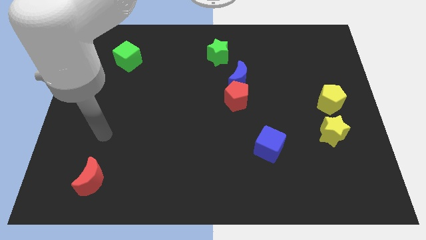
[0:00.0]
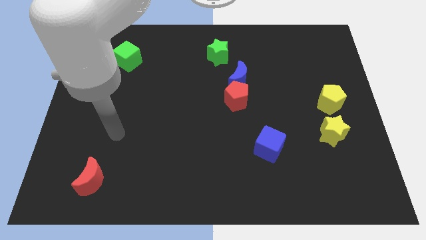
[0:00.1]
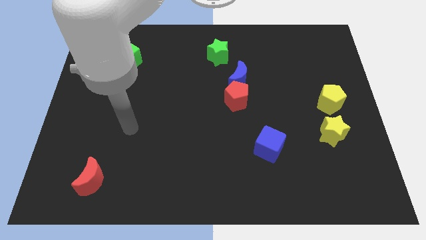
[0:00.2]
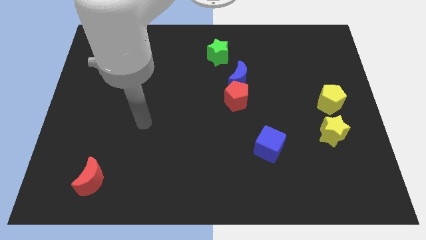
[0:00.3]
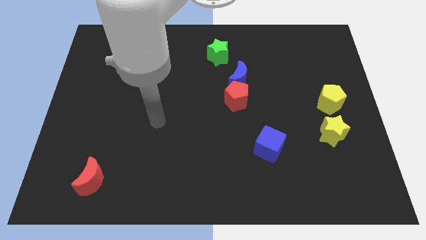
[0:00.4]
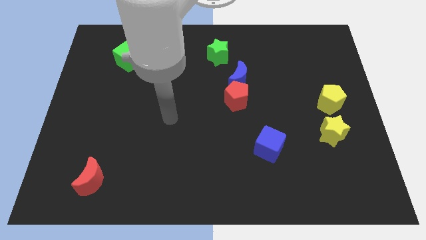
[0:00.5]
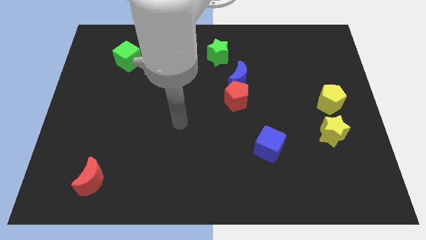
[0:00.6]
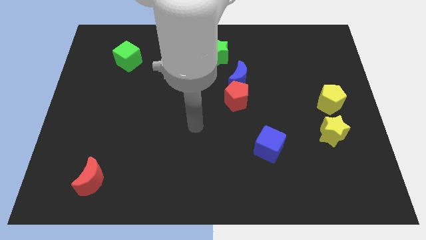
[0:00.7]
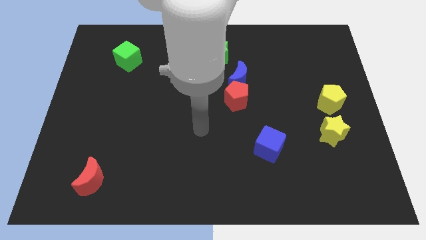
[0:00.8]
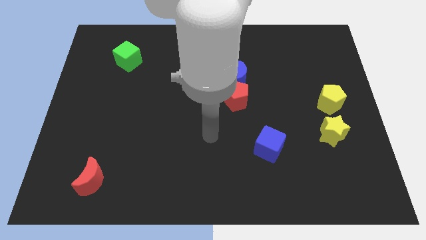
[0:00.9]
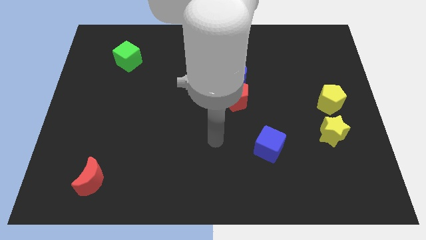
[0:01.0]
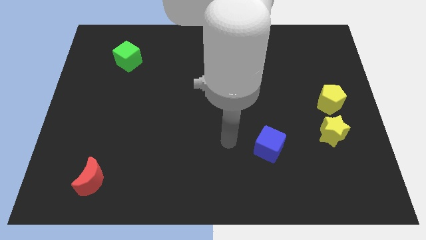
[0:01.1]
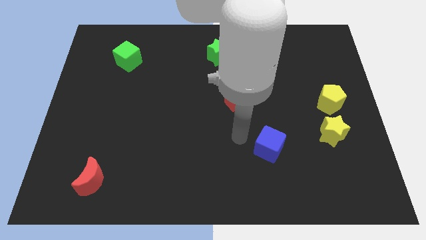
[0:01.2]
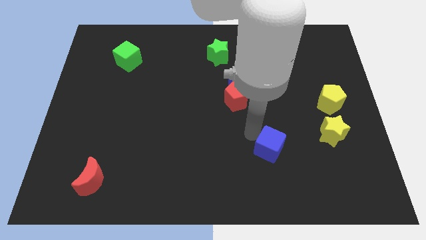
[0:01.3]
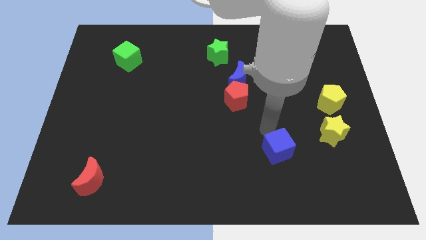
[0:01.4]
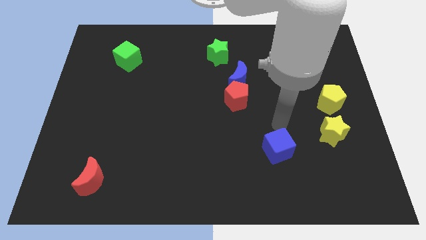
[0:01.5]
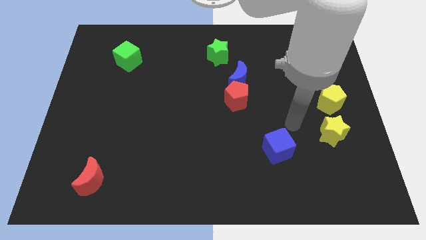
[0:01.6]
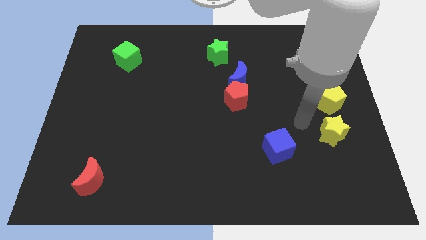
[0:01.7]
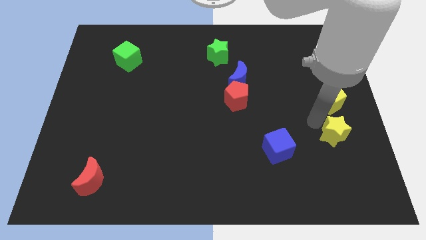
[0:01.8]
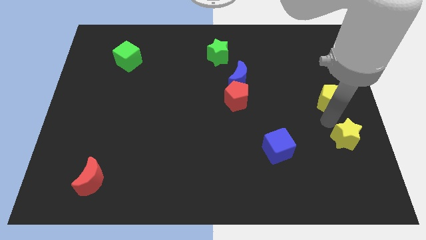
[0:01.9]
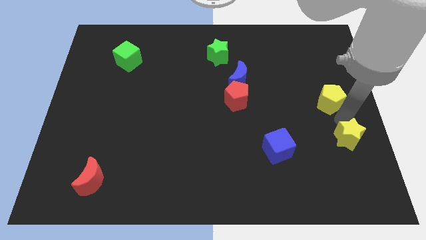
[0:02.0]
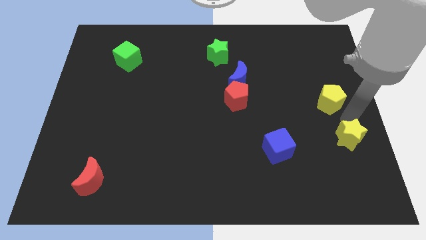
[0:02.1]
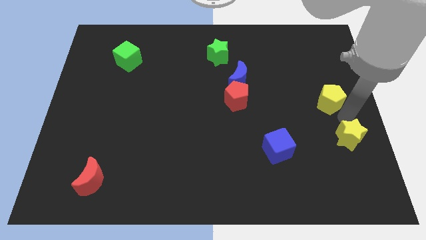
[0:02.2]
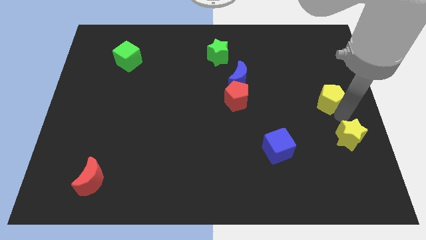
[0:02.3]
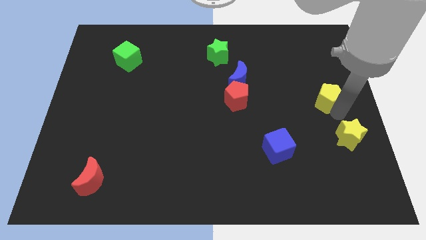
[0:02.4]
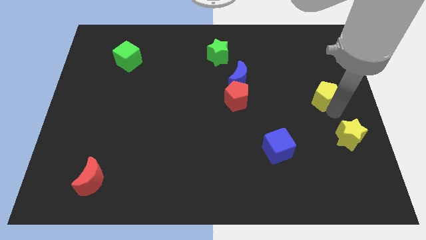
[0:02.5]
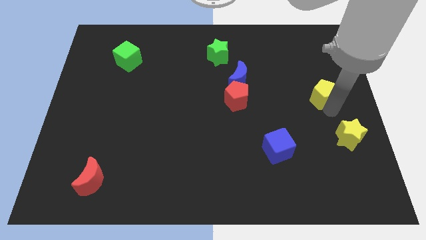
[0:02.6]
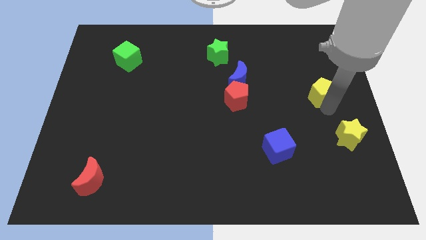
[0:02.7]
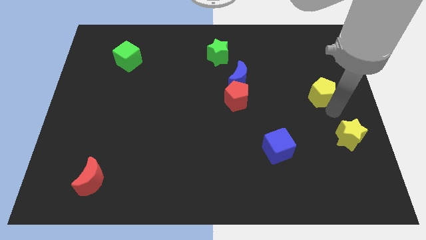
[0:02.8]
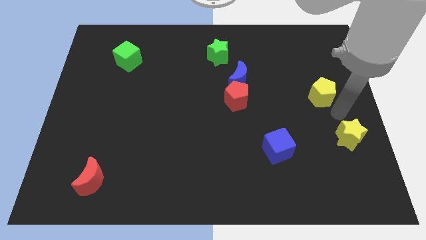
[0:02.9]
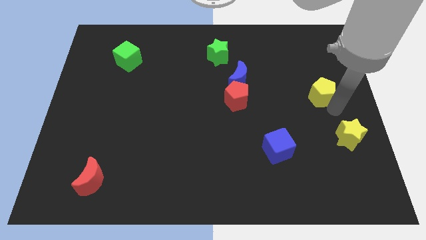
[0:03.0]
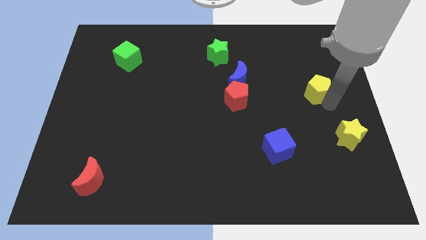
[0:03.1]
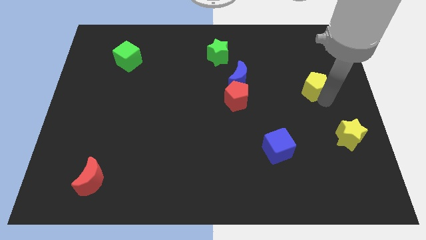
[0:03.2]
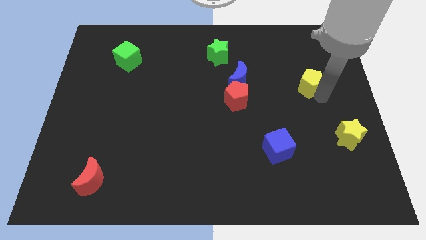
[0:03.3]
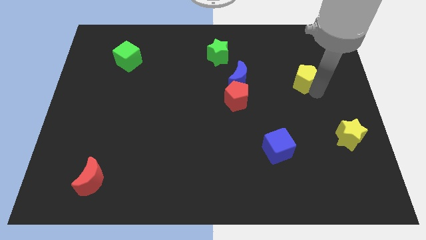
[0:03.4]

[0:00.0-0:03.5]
slide the yellow pentagon upwards and to the left a little

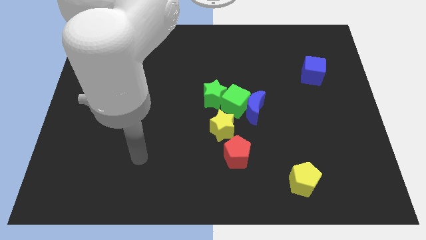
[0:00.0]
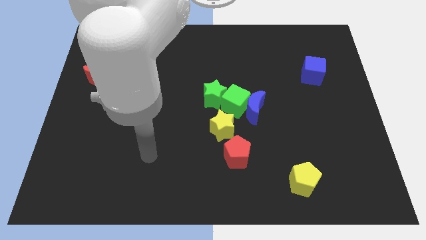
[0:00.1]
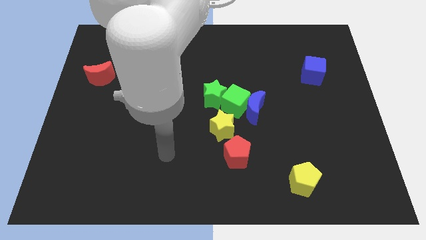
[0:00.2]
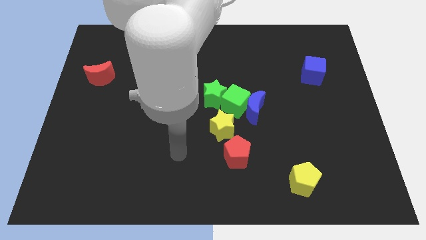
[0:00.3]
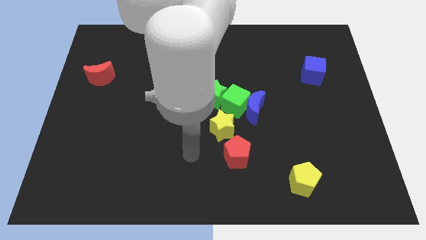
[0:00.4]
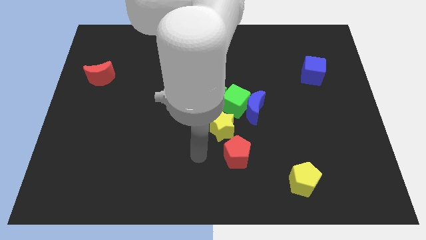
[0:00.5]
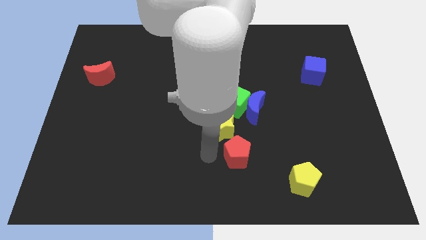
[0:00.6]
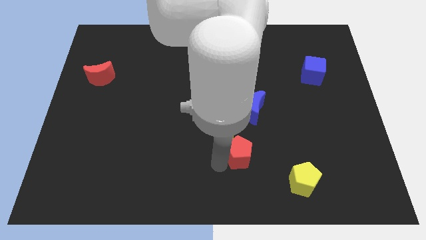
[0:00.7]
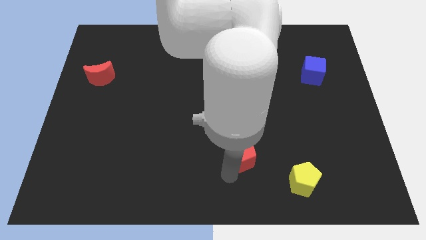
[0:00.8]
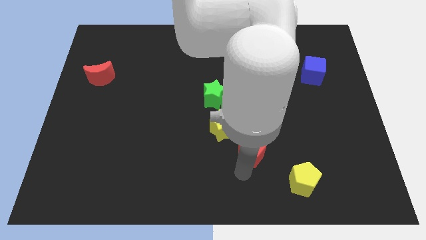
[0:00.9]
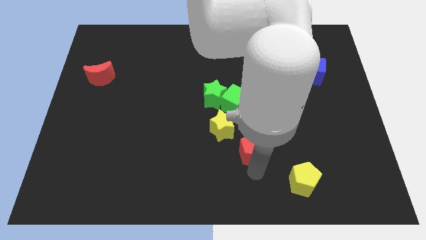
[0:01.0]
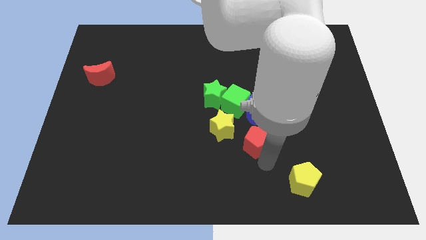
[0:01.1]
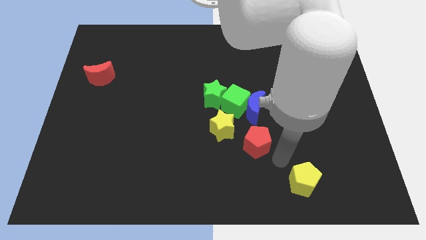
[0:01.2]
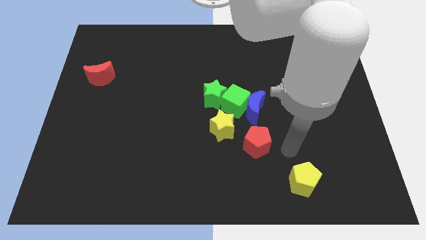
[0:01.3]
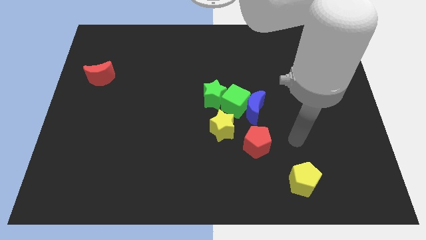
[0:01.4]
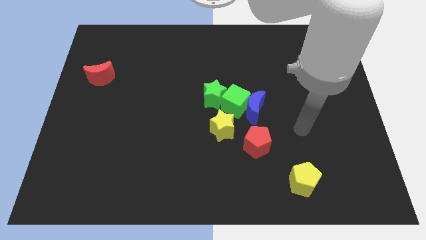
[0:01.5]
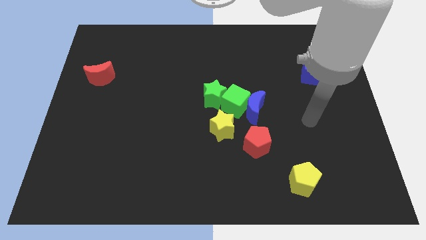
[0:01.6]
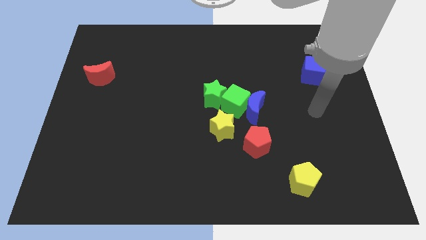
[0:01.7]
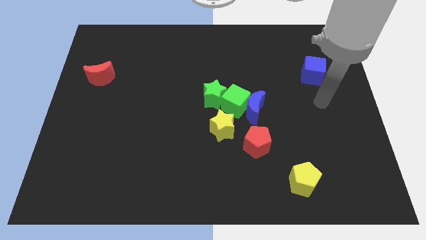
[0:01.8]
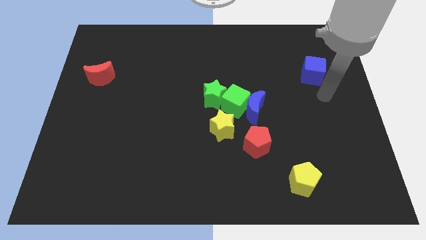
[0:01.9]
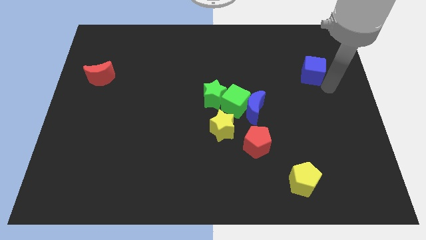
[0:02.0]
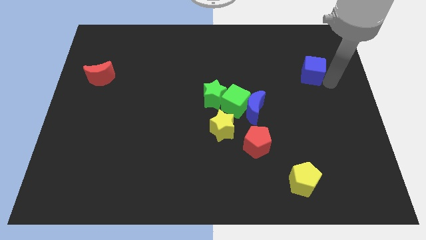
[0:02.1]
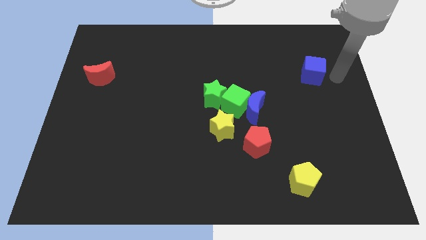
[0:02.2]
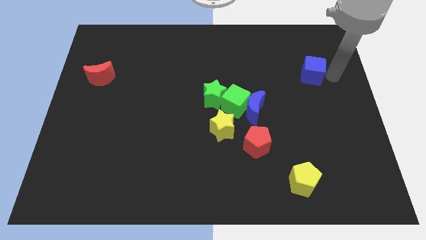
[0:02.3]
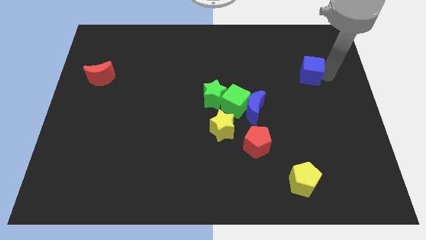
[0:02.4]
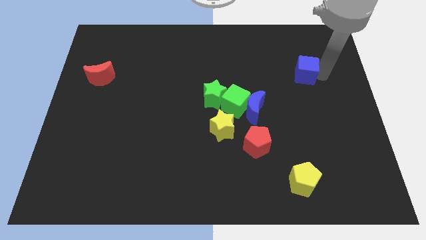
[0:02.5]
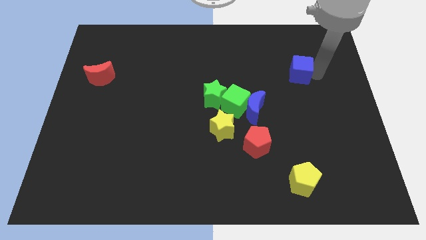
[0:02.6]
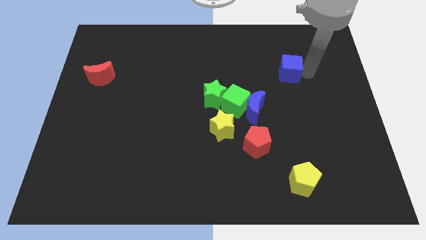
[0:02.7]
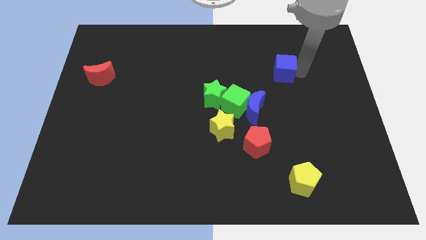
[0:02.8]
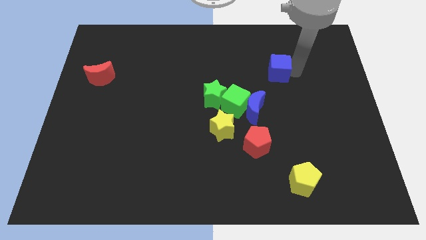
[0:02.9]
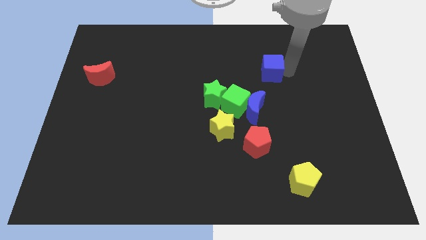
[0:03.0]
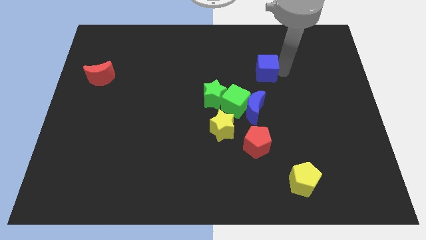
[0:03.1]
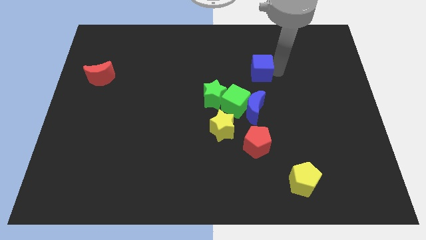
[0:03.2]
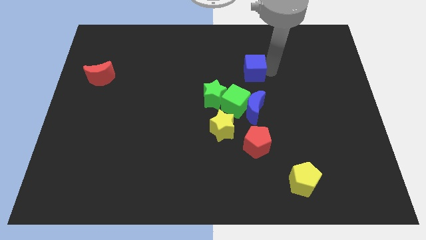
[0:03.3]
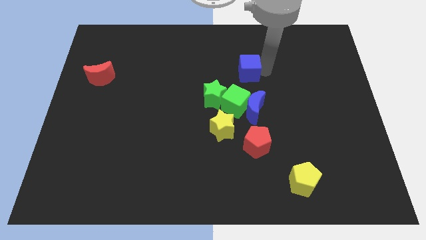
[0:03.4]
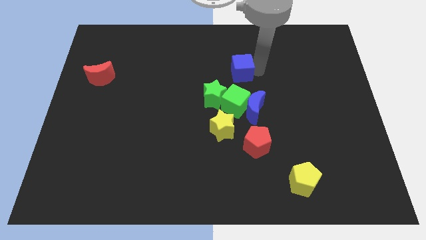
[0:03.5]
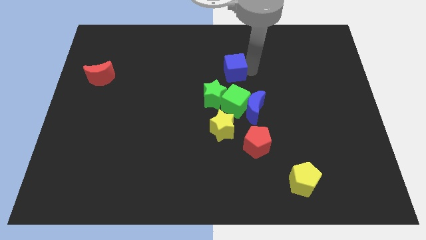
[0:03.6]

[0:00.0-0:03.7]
move the blue cube to the left

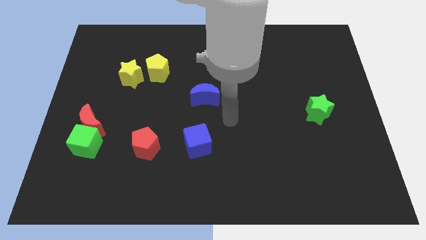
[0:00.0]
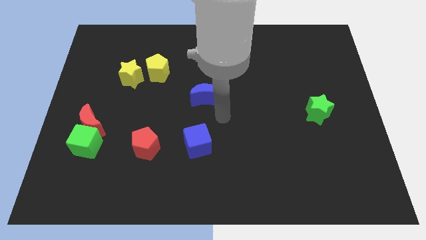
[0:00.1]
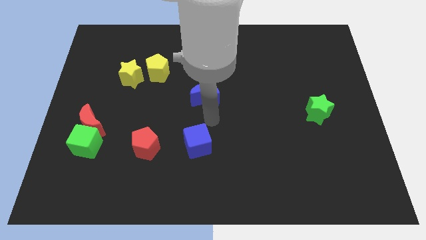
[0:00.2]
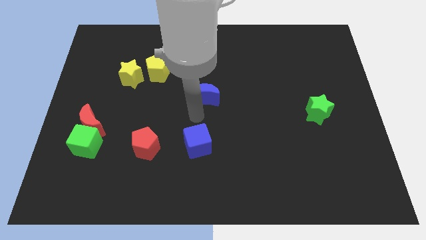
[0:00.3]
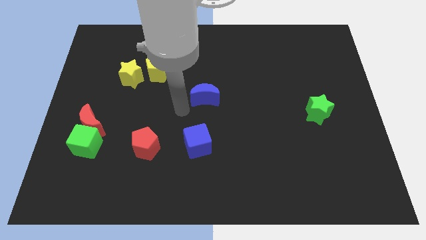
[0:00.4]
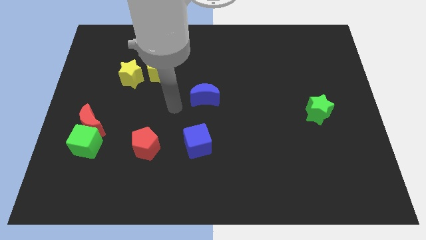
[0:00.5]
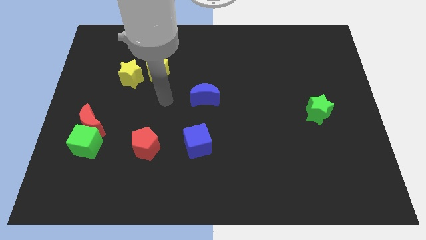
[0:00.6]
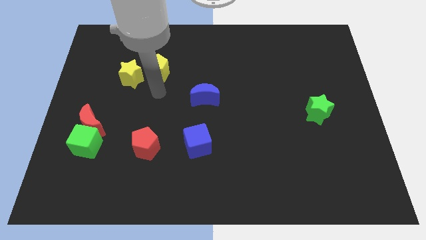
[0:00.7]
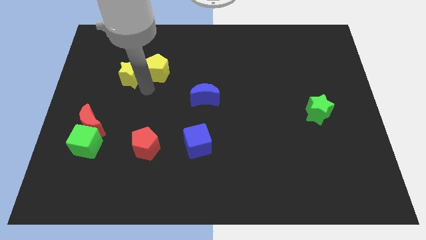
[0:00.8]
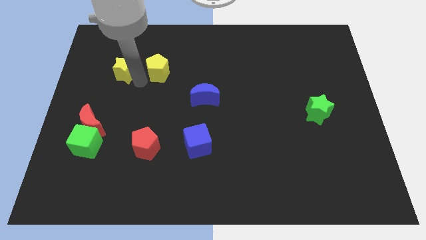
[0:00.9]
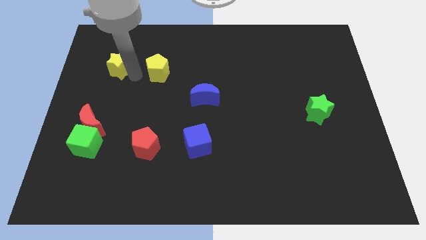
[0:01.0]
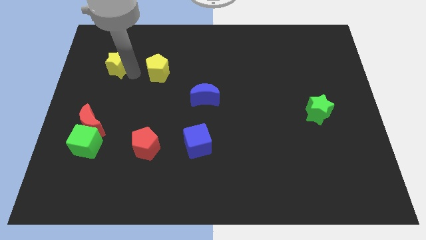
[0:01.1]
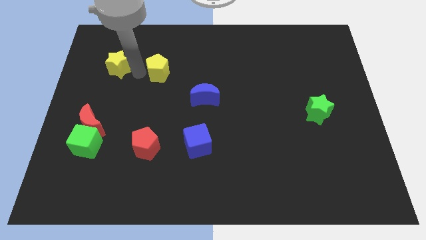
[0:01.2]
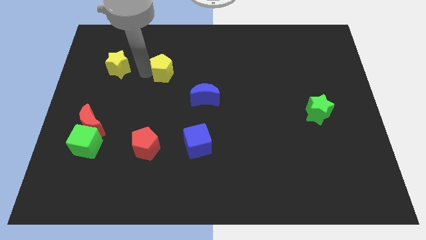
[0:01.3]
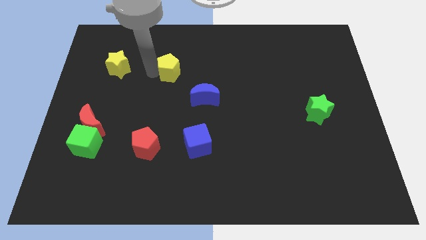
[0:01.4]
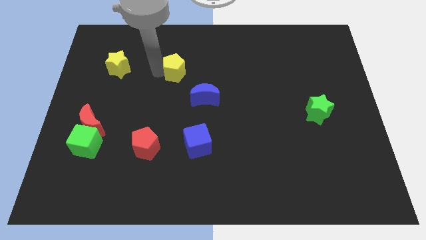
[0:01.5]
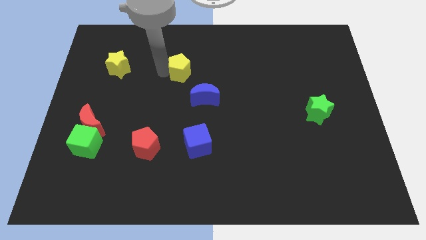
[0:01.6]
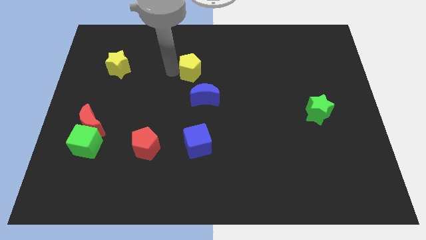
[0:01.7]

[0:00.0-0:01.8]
push the yellow pentagon slightly right
